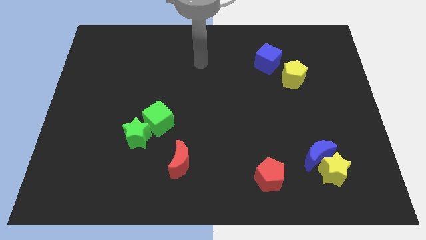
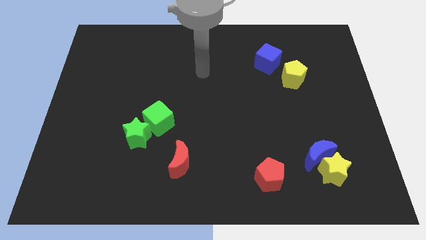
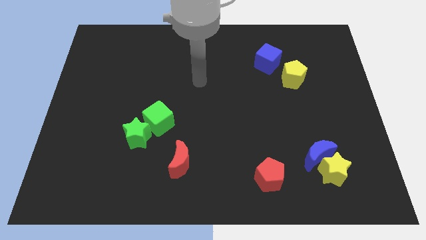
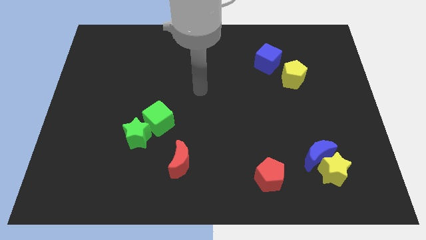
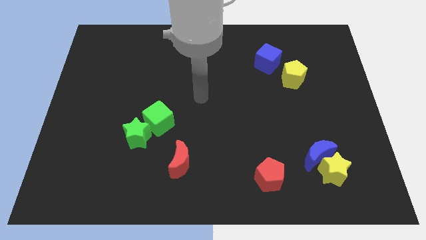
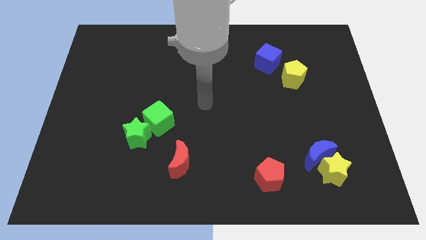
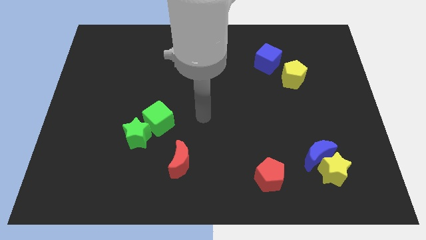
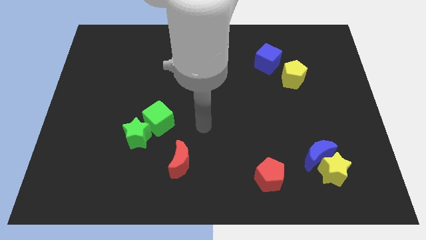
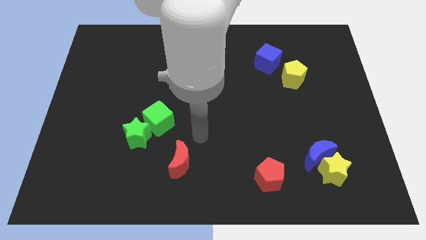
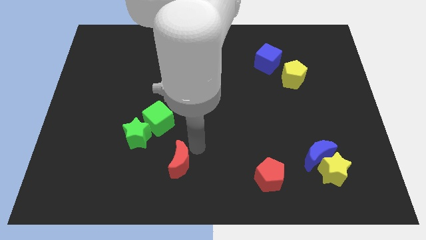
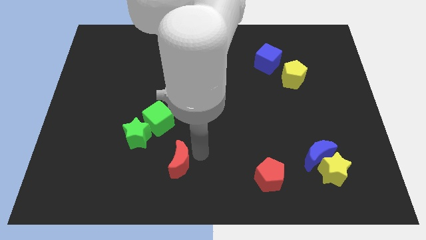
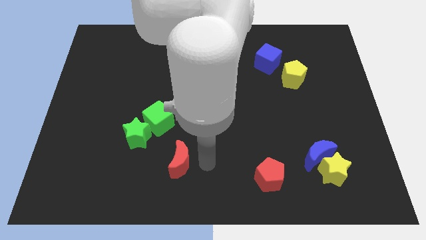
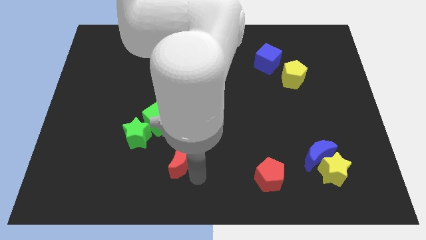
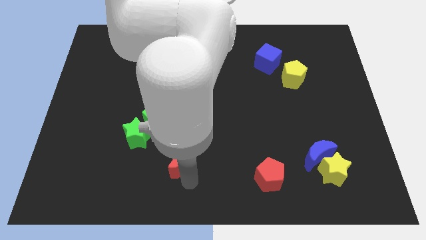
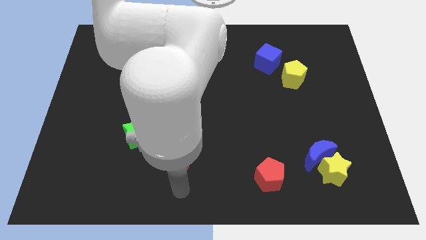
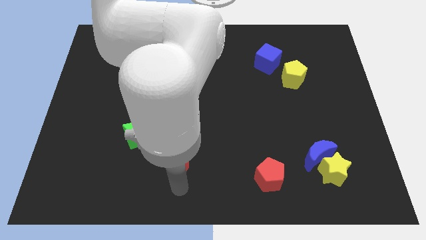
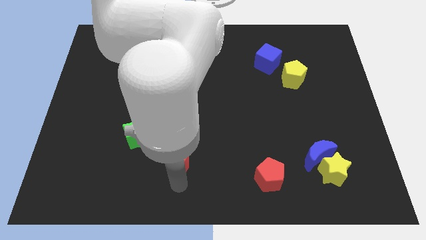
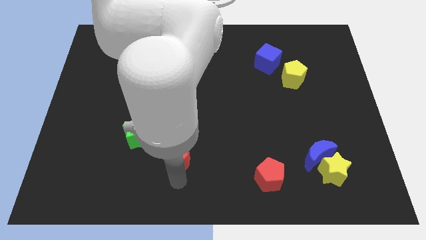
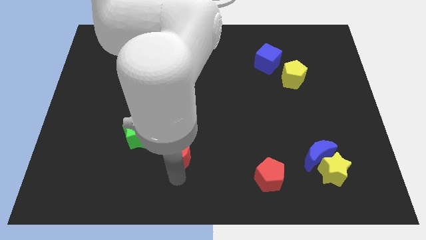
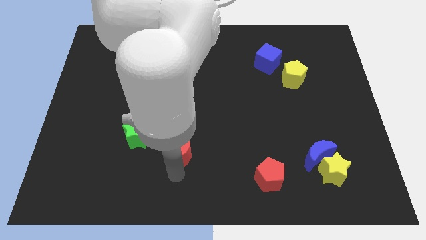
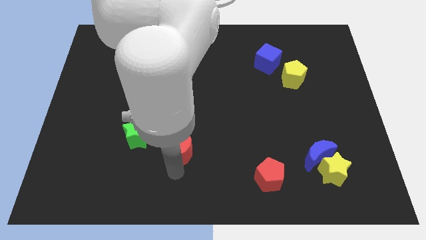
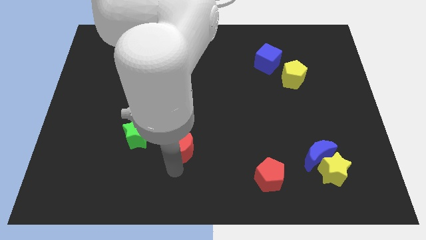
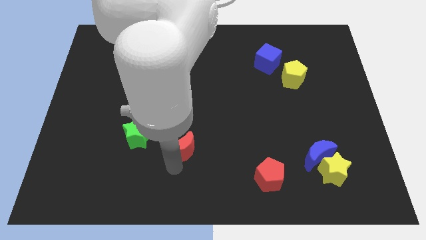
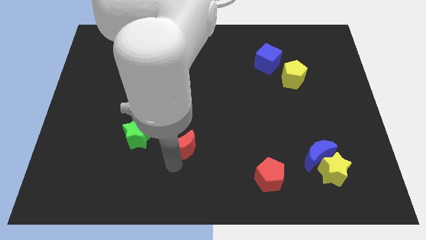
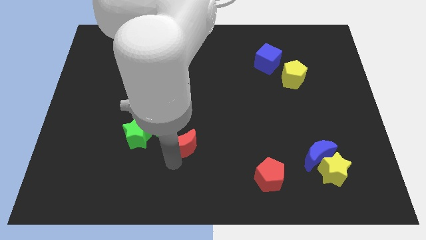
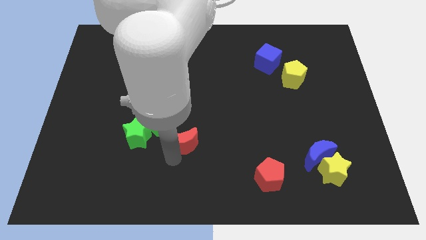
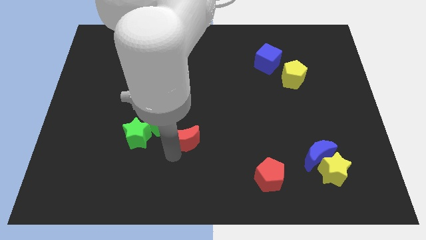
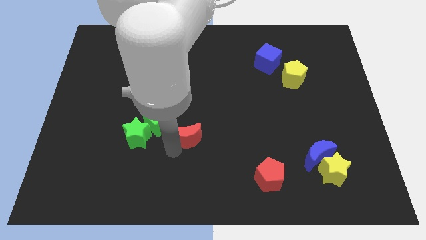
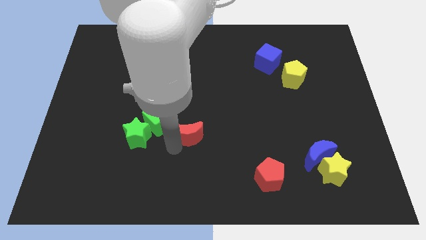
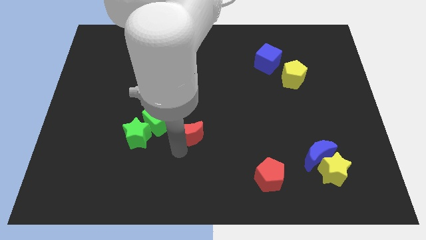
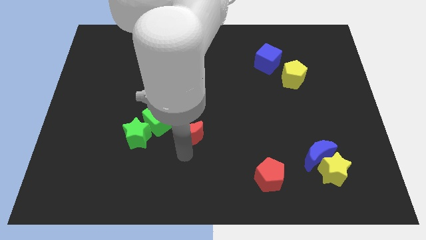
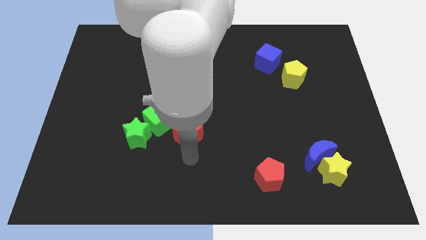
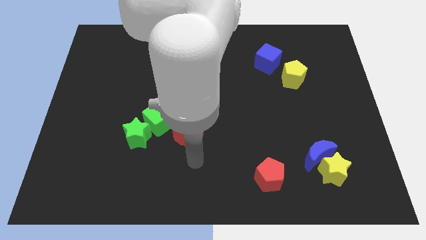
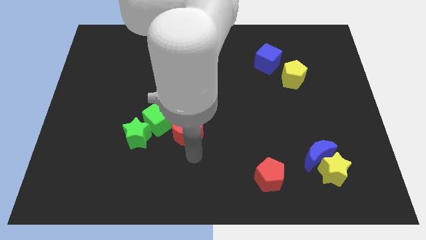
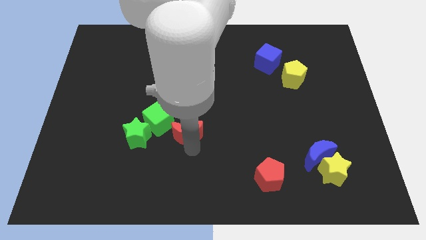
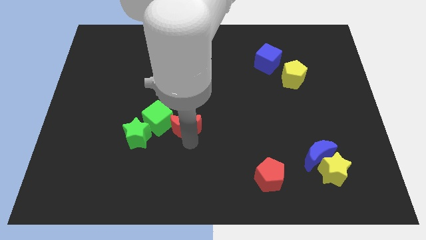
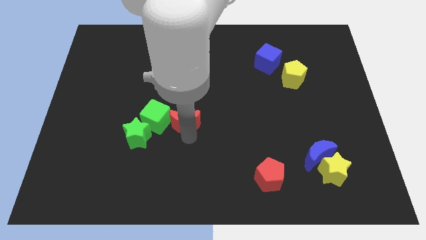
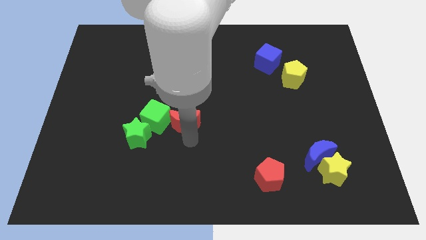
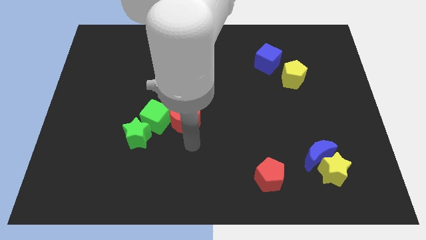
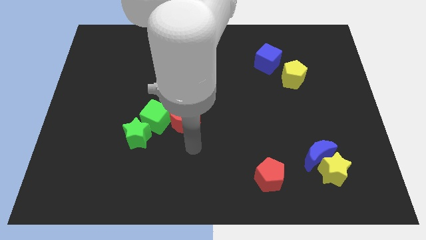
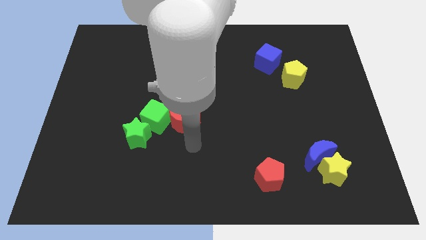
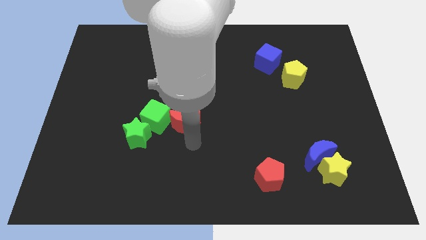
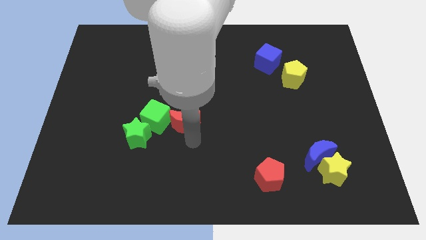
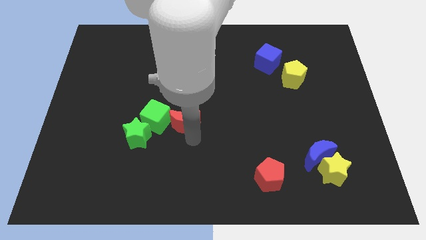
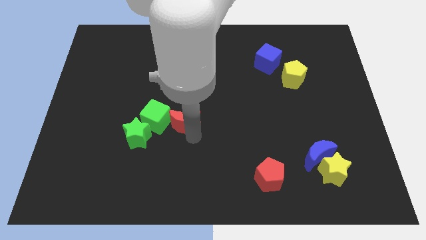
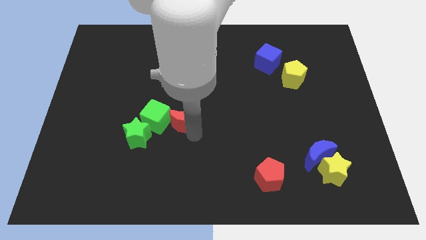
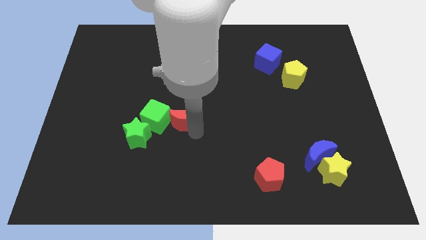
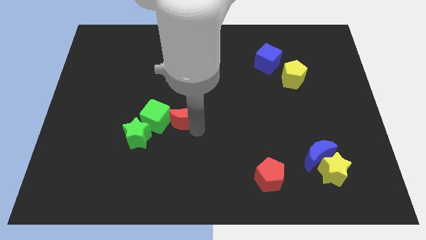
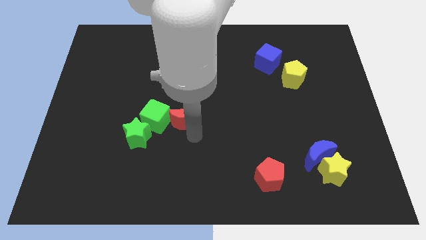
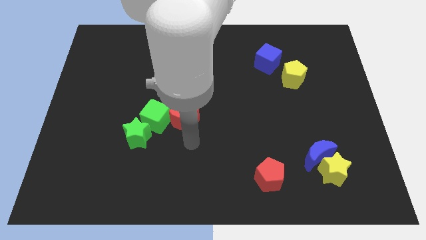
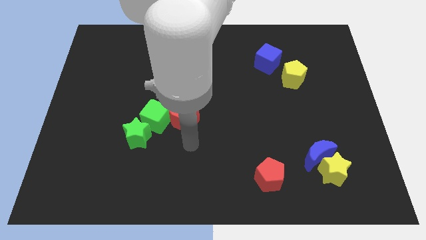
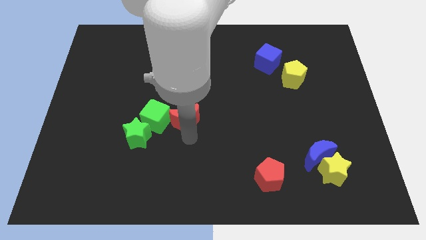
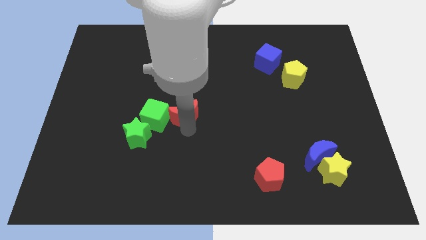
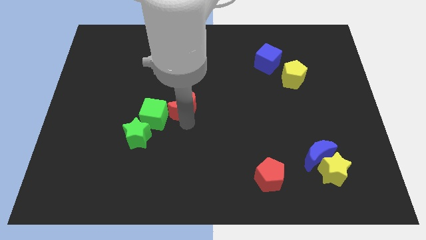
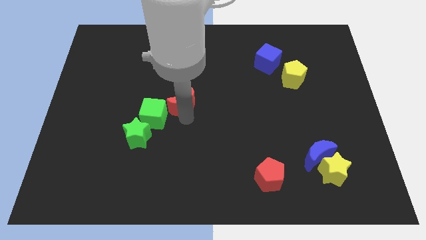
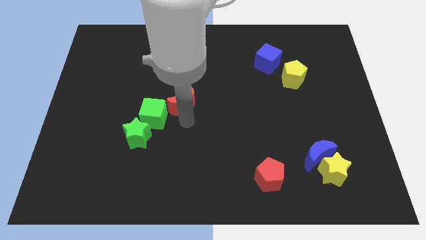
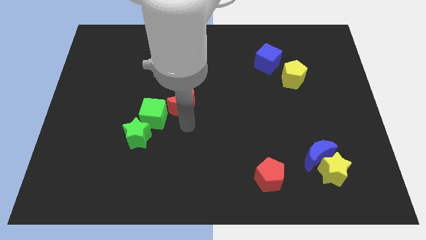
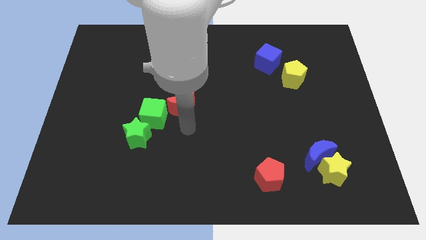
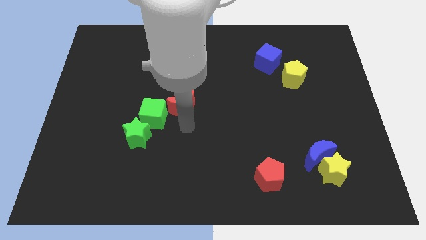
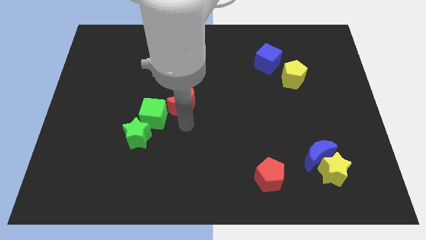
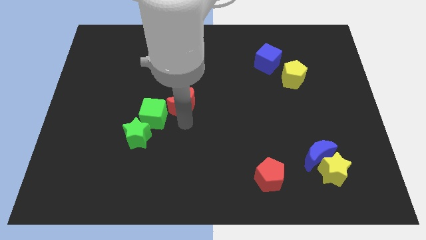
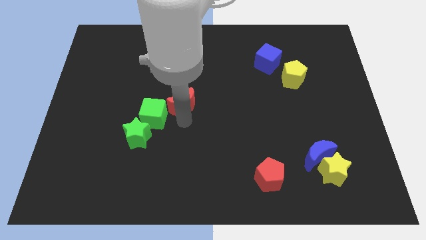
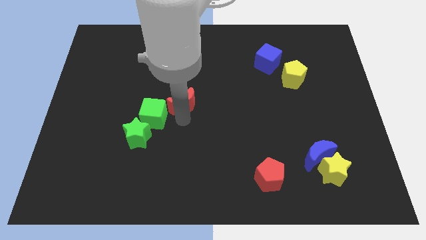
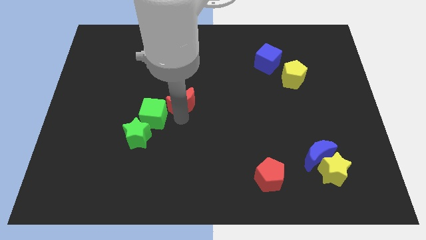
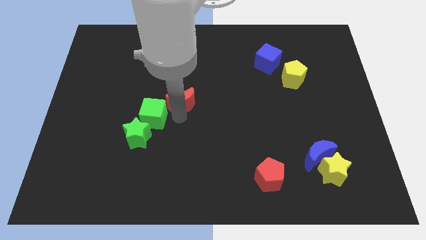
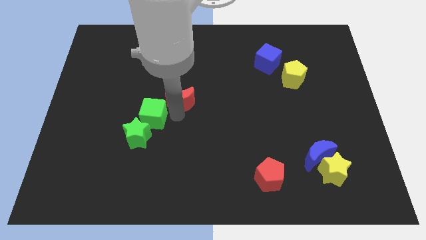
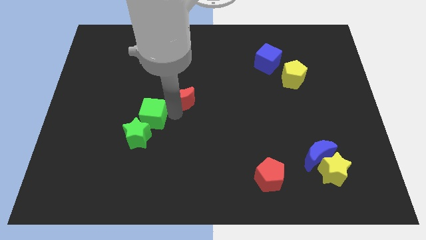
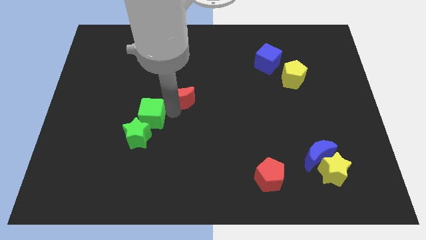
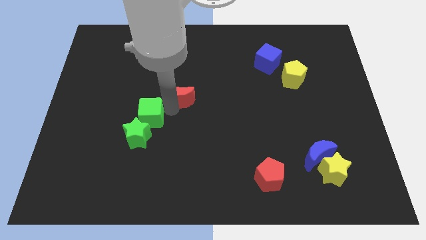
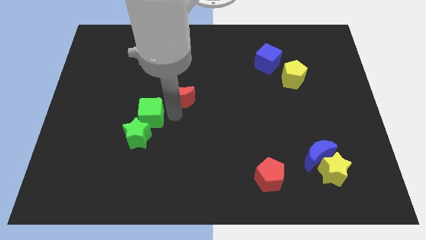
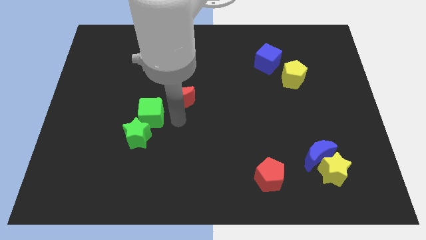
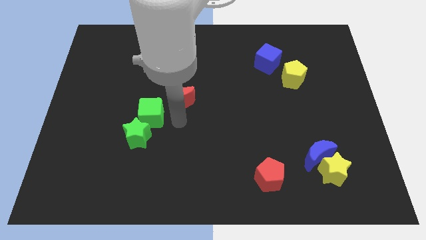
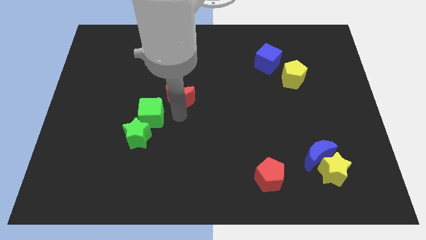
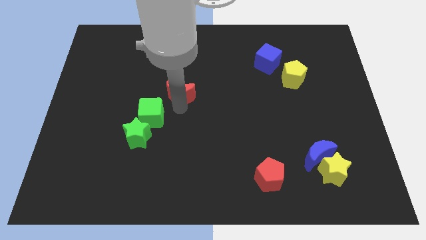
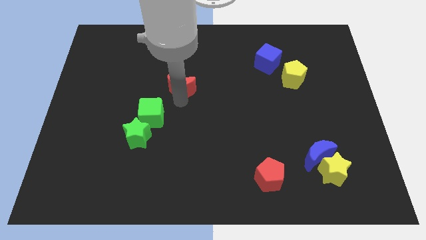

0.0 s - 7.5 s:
slide the red moon up

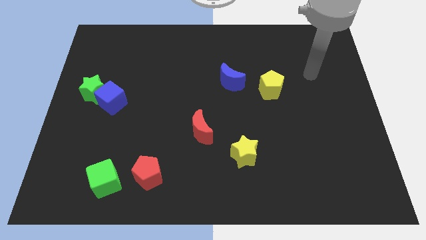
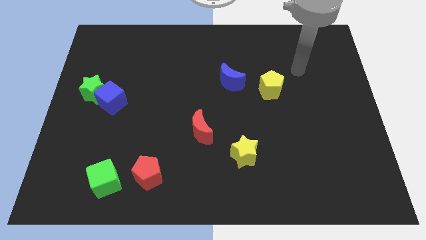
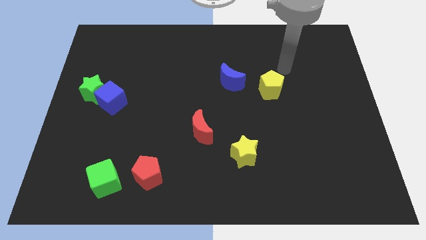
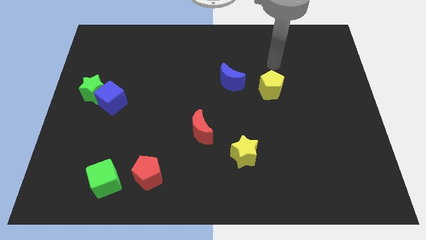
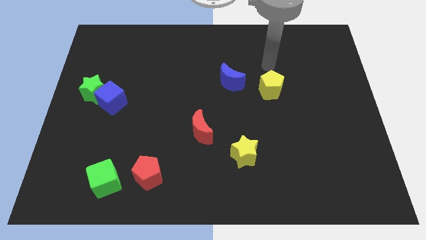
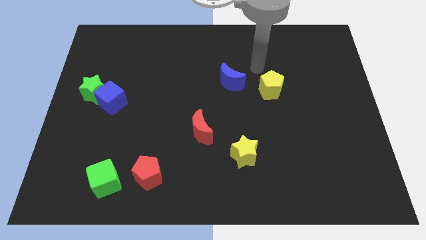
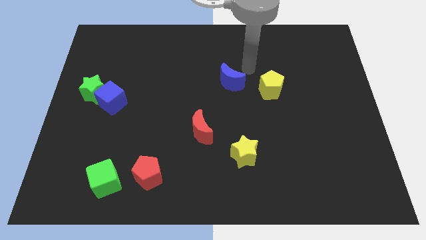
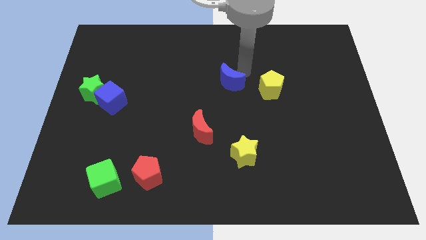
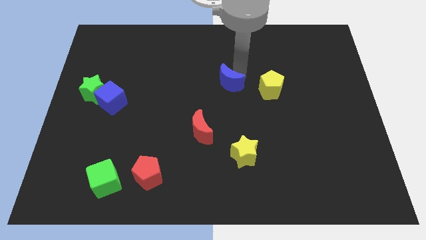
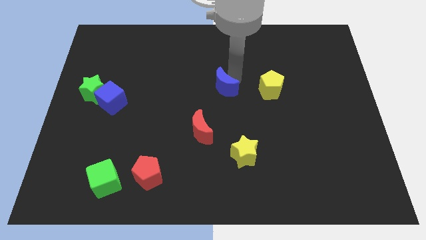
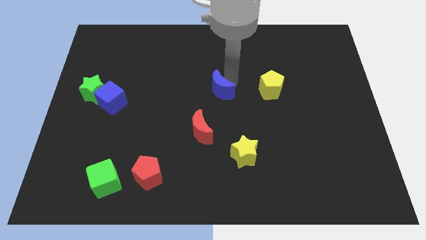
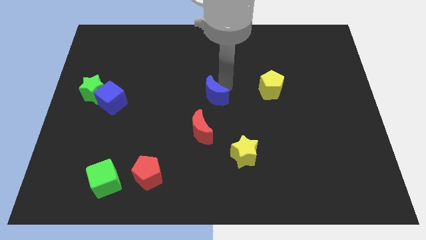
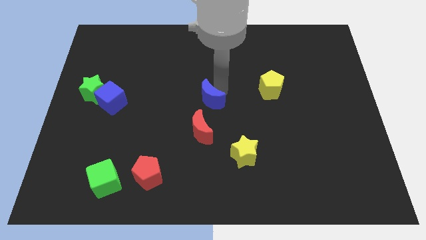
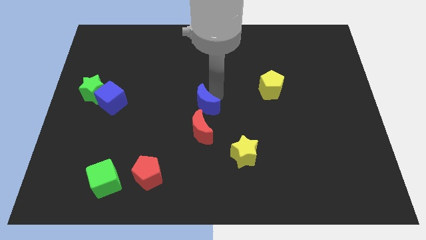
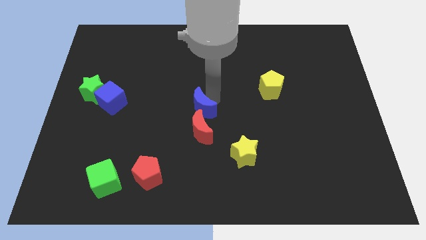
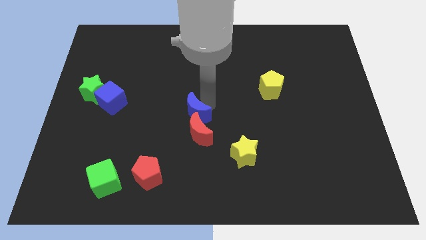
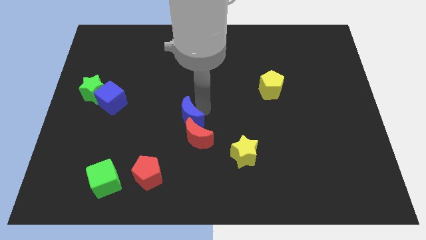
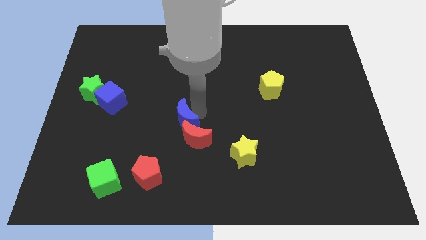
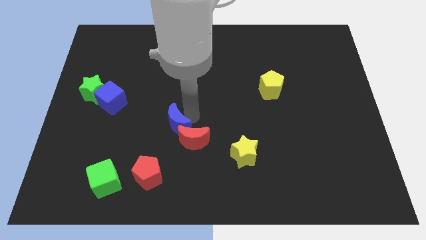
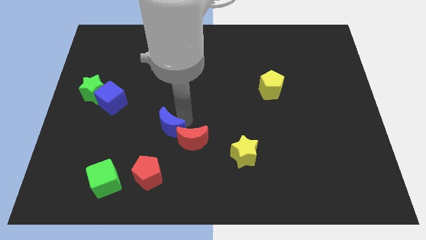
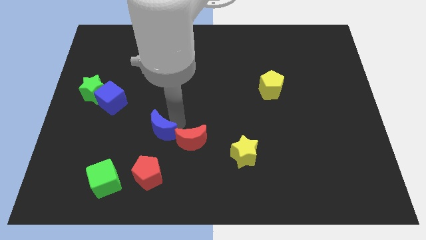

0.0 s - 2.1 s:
push the blue moon downwards and then left
